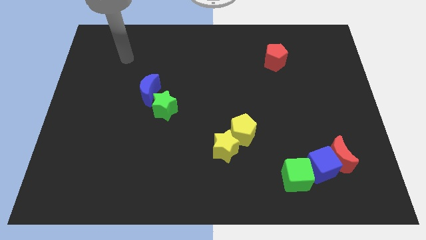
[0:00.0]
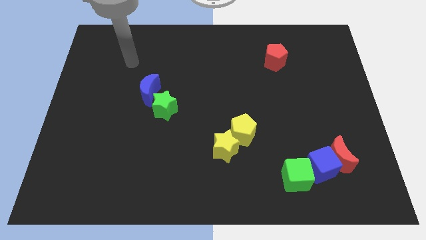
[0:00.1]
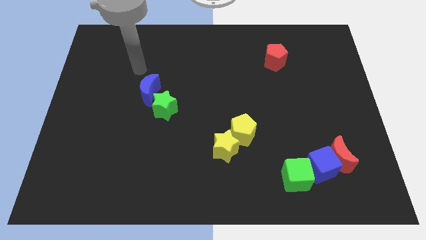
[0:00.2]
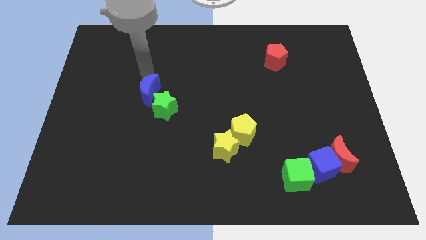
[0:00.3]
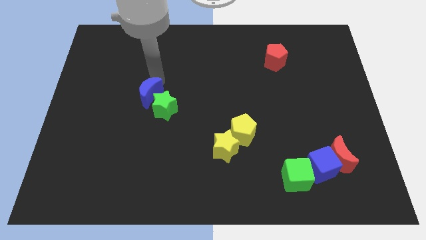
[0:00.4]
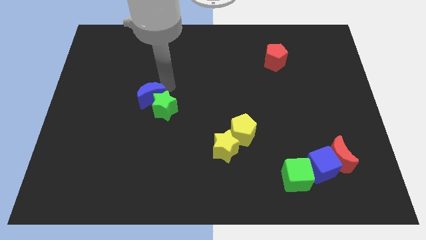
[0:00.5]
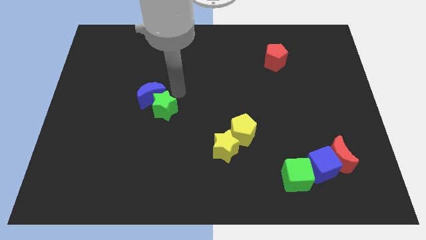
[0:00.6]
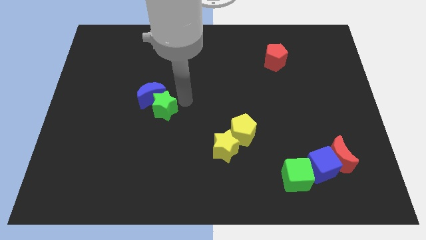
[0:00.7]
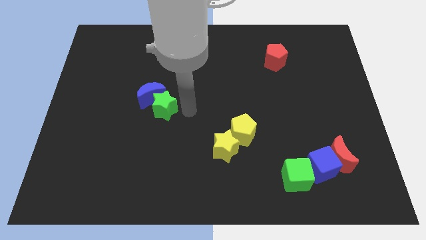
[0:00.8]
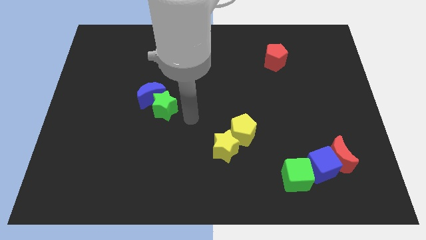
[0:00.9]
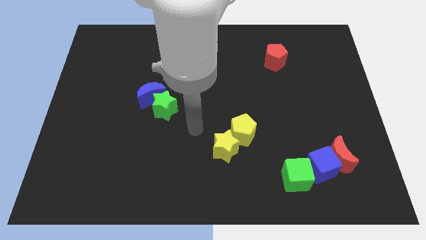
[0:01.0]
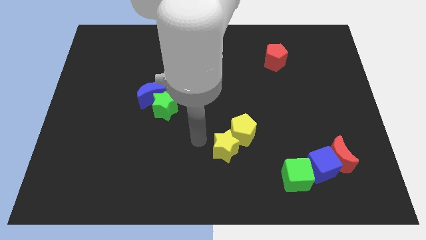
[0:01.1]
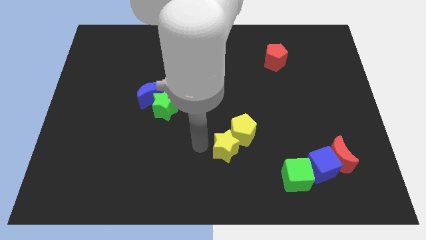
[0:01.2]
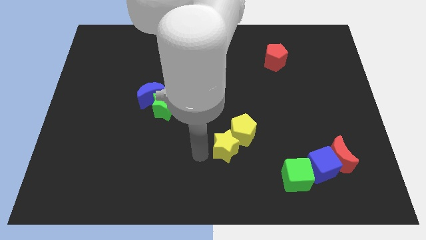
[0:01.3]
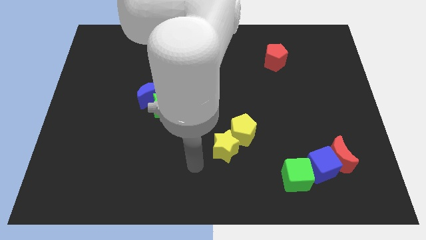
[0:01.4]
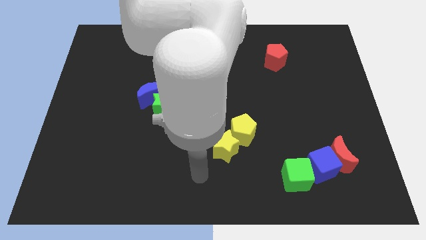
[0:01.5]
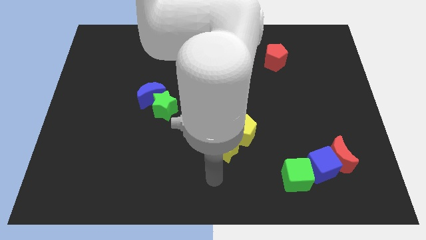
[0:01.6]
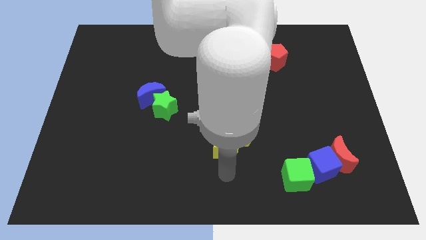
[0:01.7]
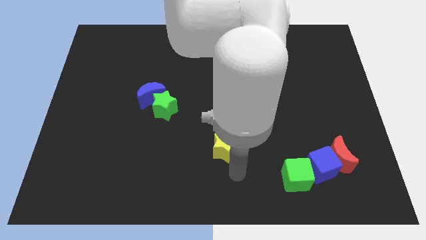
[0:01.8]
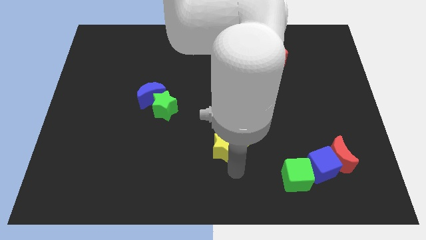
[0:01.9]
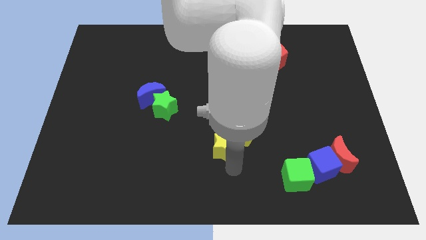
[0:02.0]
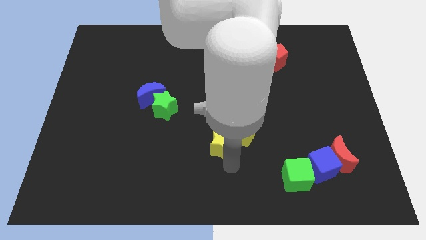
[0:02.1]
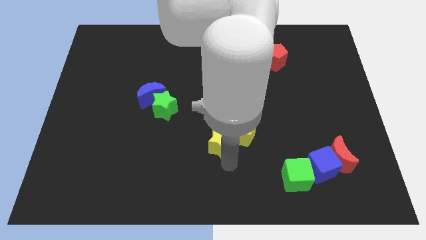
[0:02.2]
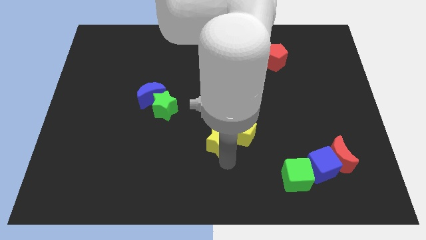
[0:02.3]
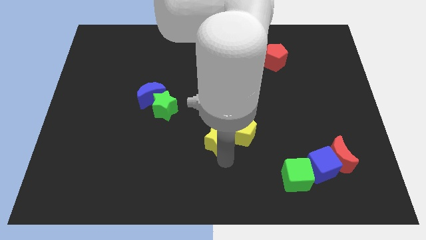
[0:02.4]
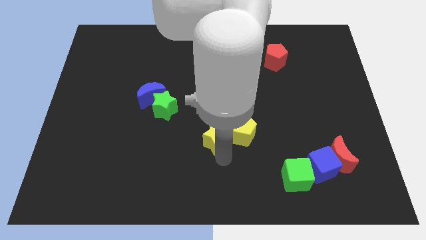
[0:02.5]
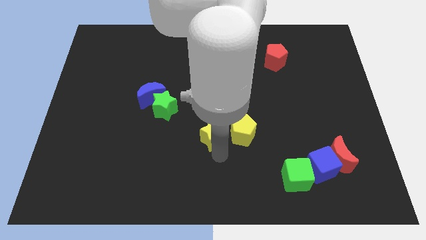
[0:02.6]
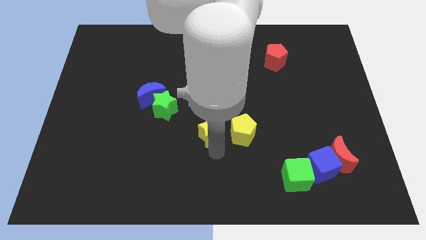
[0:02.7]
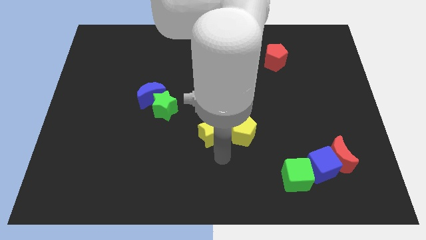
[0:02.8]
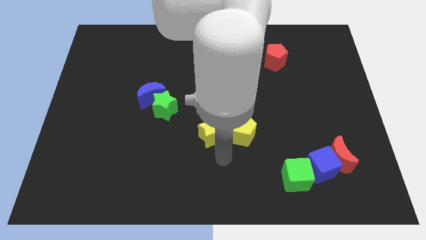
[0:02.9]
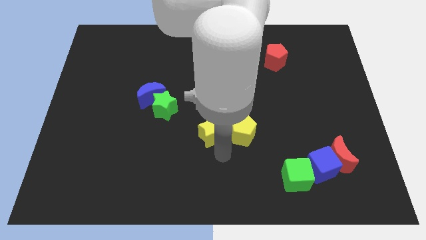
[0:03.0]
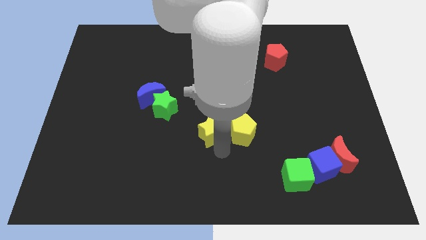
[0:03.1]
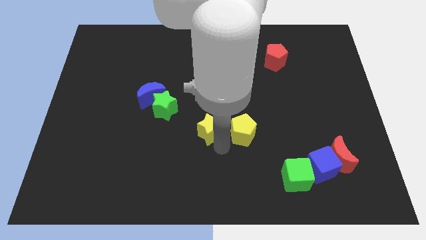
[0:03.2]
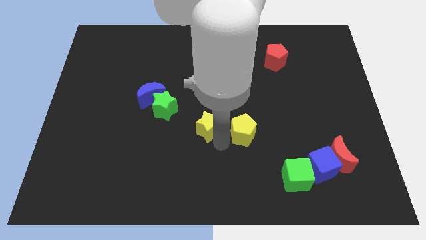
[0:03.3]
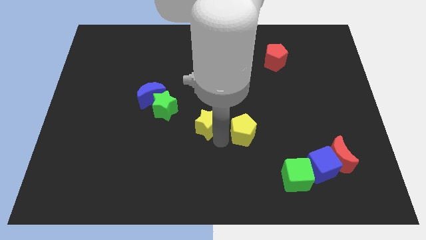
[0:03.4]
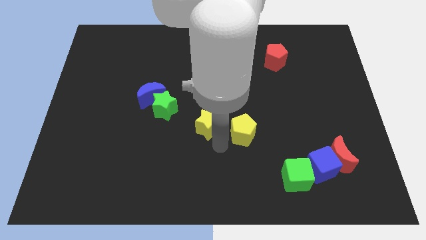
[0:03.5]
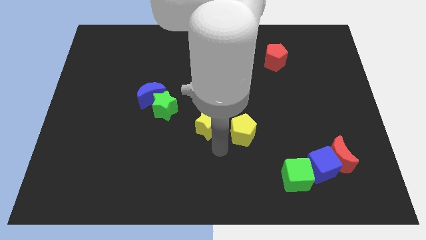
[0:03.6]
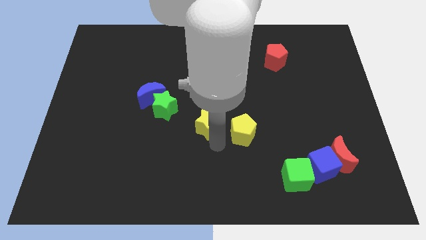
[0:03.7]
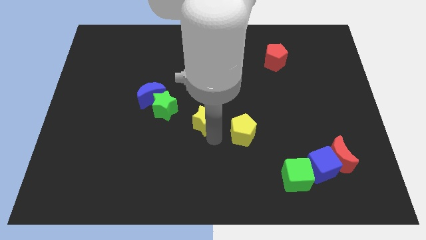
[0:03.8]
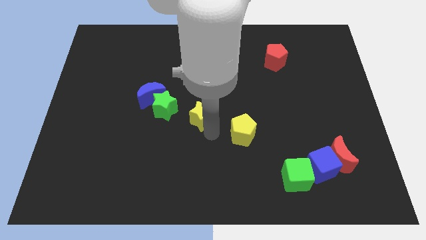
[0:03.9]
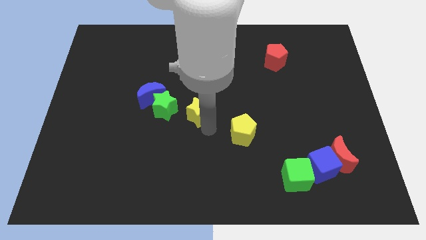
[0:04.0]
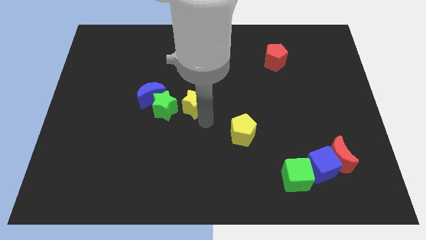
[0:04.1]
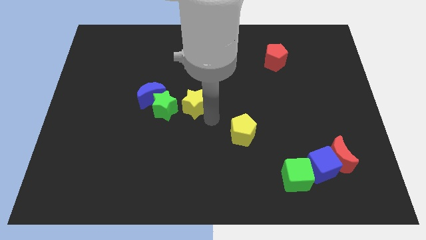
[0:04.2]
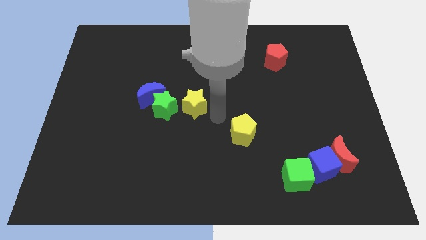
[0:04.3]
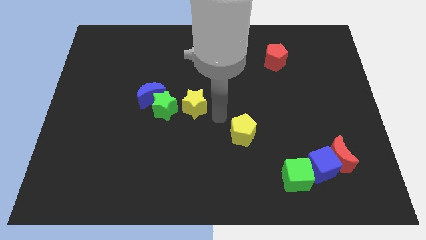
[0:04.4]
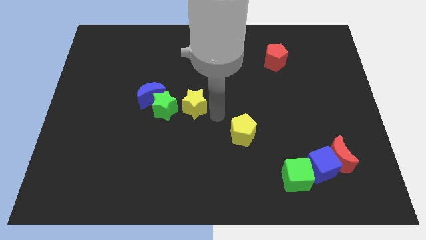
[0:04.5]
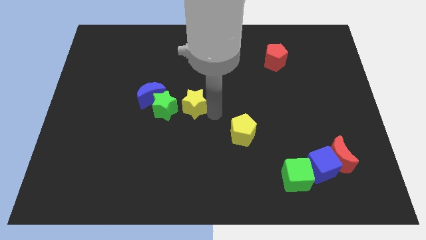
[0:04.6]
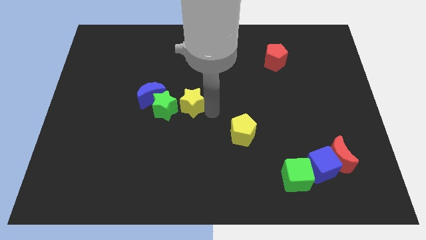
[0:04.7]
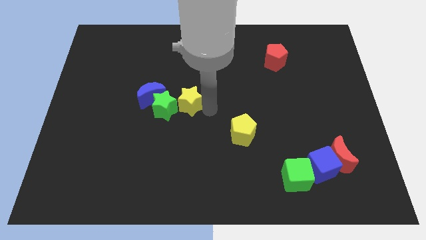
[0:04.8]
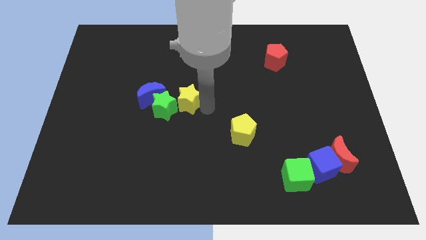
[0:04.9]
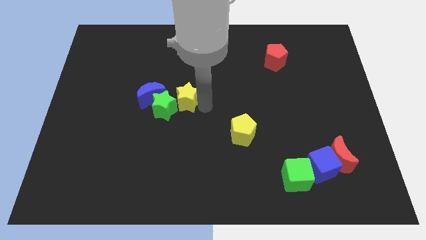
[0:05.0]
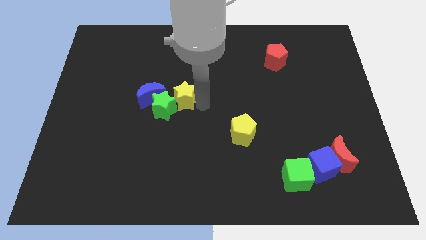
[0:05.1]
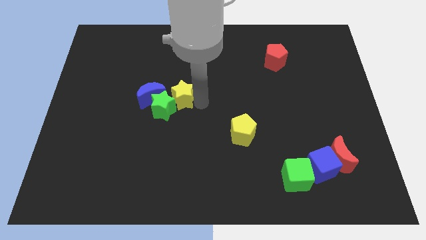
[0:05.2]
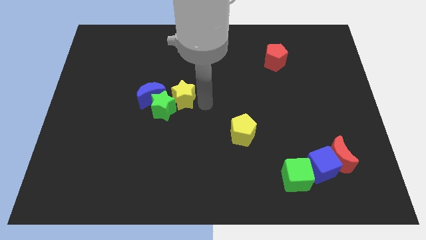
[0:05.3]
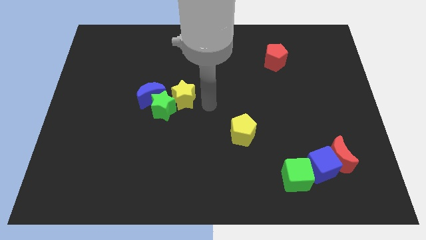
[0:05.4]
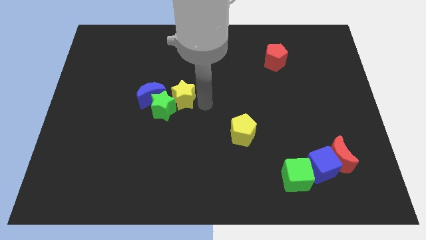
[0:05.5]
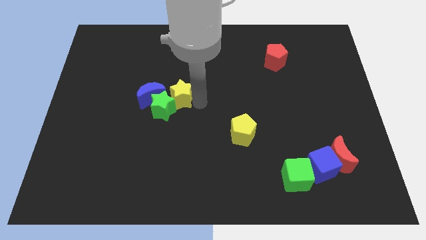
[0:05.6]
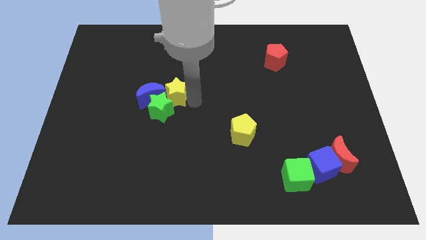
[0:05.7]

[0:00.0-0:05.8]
put the yellow star towards the blue moon

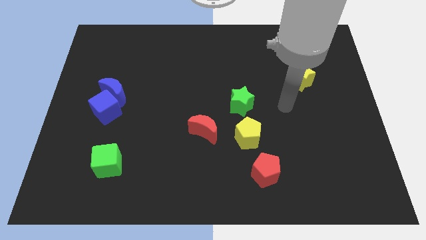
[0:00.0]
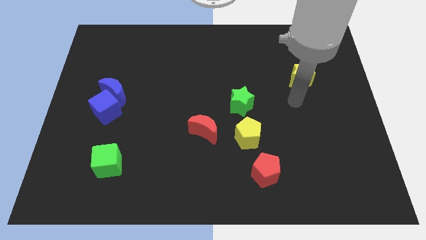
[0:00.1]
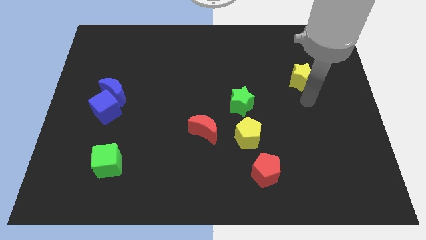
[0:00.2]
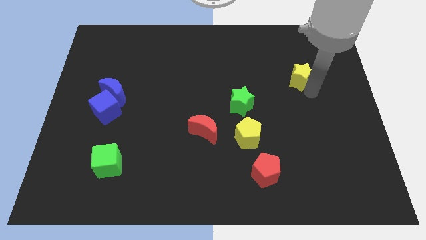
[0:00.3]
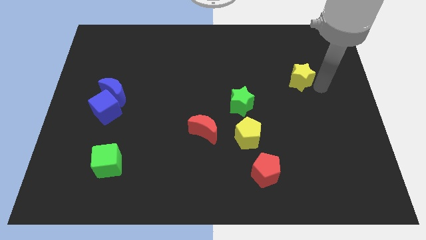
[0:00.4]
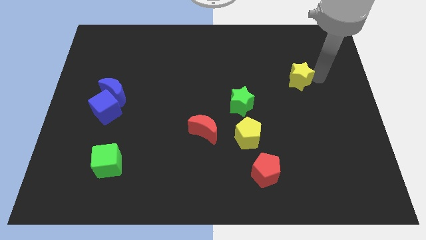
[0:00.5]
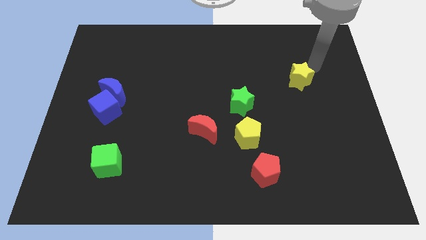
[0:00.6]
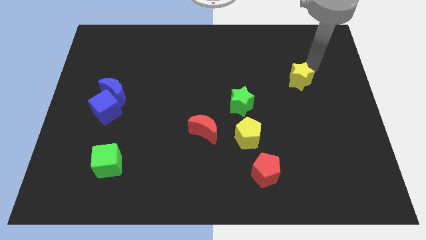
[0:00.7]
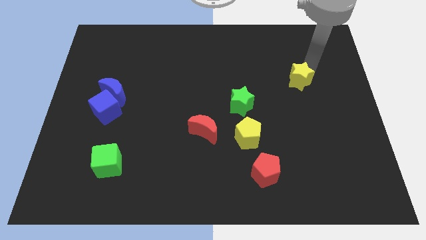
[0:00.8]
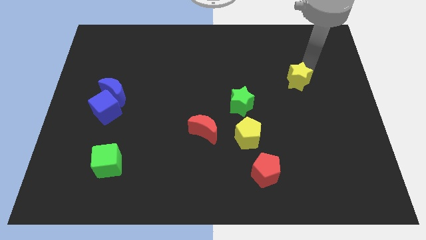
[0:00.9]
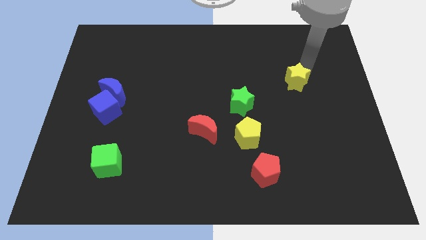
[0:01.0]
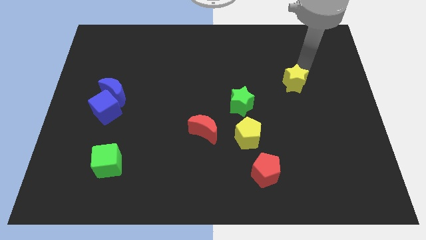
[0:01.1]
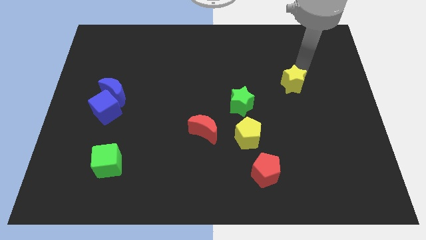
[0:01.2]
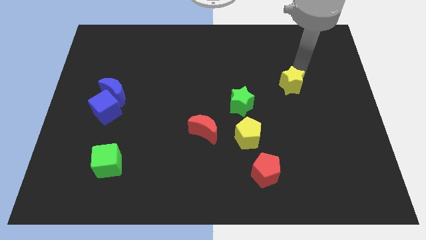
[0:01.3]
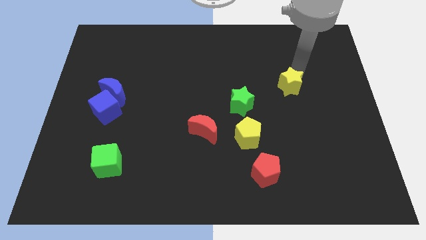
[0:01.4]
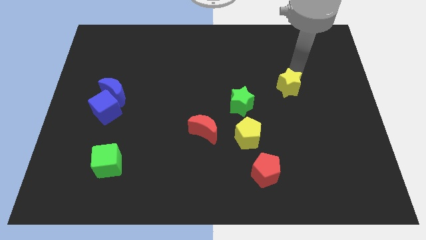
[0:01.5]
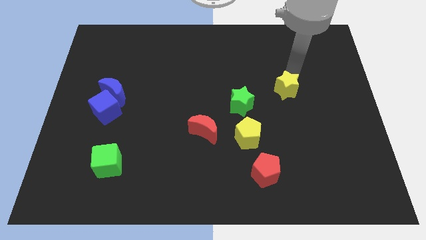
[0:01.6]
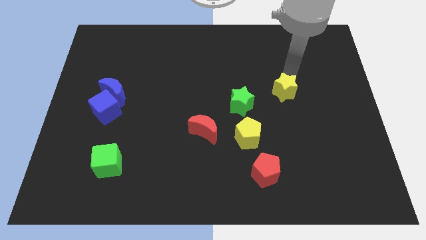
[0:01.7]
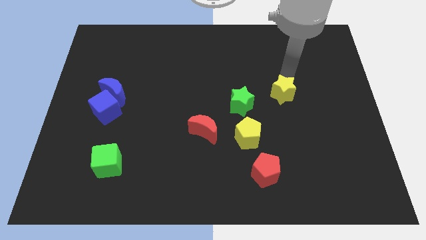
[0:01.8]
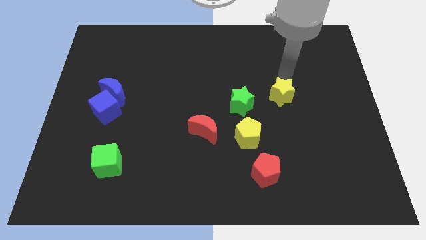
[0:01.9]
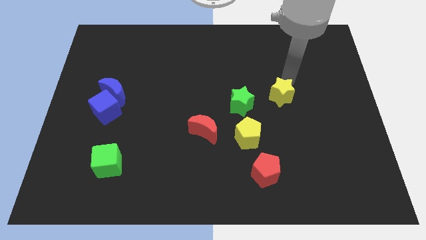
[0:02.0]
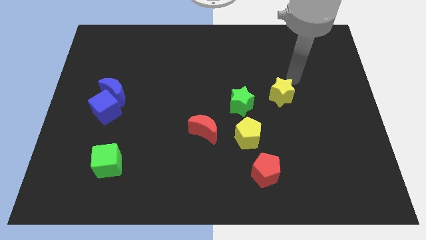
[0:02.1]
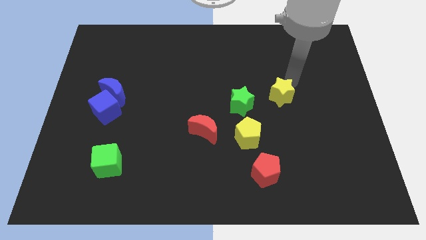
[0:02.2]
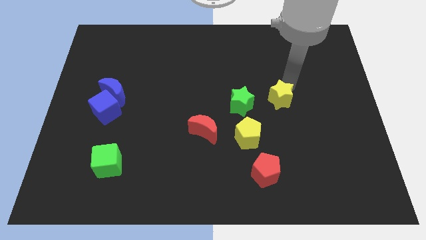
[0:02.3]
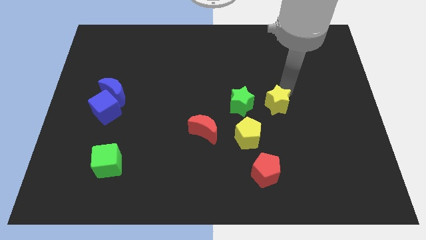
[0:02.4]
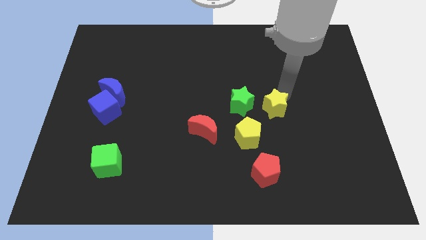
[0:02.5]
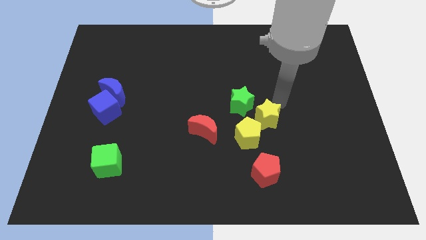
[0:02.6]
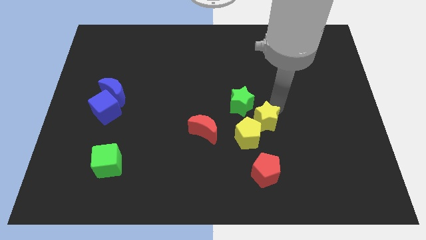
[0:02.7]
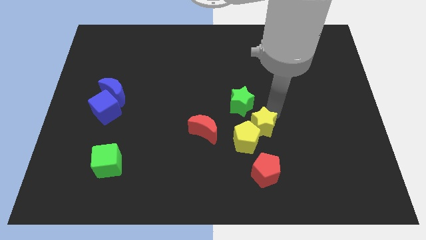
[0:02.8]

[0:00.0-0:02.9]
put the yellow star to the yellow pentagon
